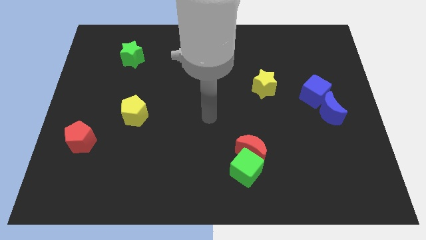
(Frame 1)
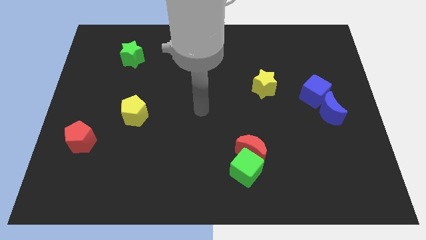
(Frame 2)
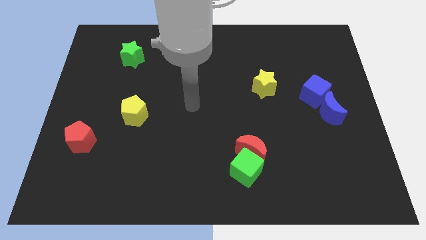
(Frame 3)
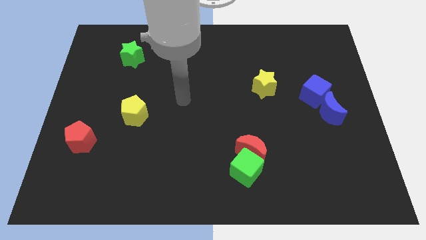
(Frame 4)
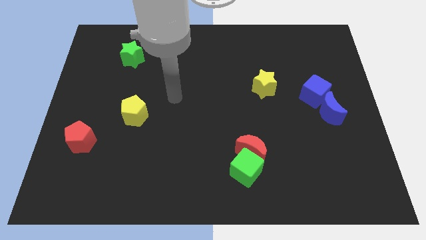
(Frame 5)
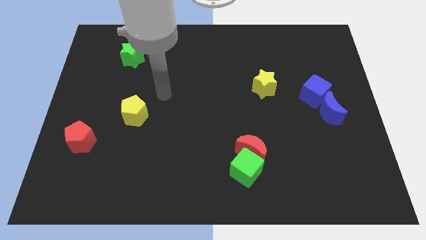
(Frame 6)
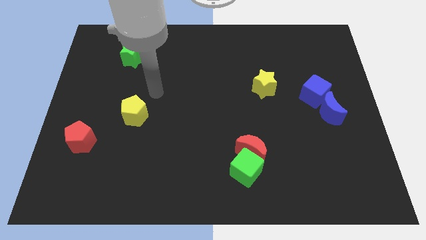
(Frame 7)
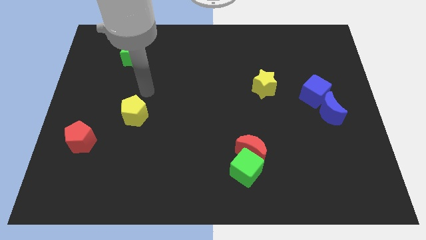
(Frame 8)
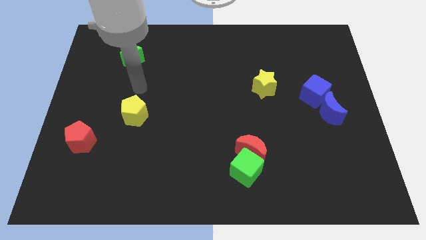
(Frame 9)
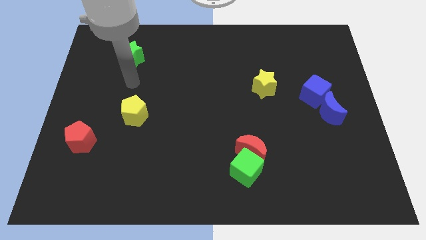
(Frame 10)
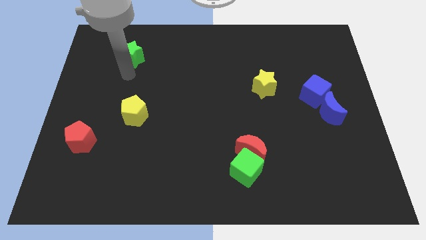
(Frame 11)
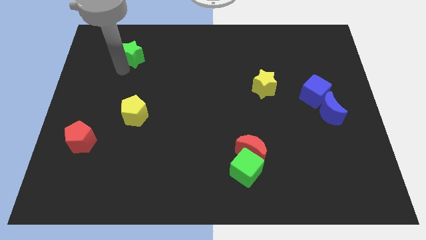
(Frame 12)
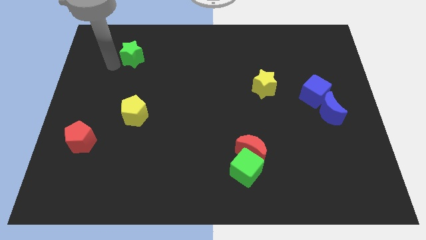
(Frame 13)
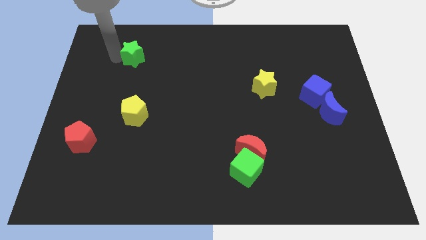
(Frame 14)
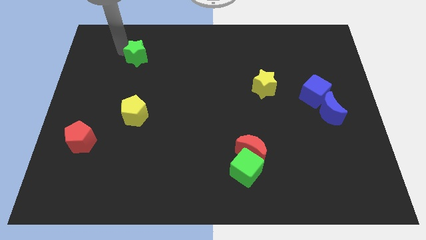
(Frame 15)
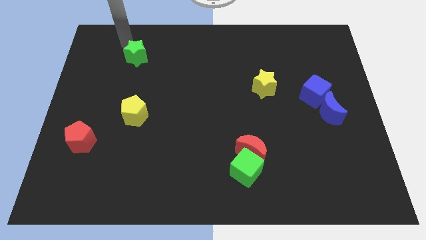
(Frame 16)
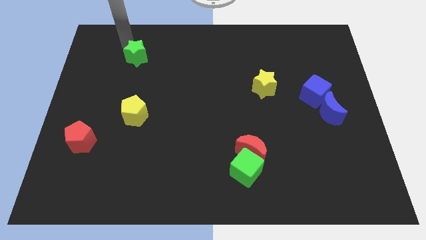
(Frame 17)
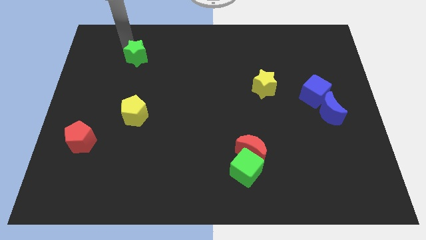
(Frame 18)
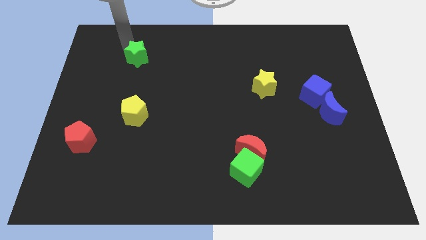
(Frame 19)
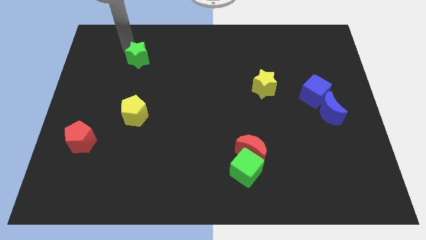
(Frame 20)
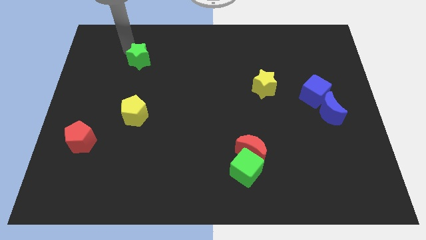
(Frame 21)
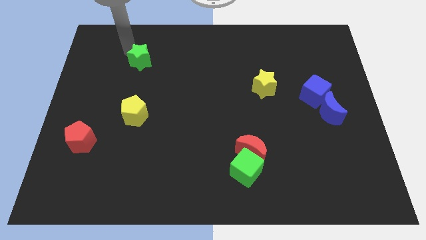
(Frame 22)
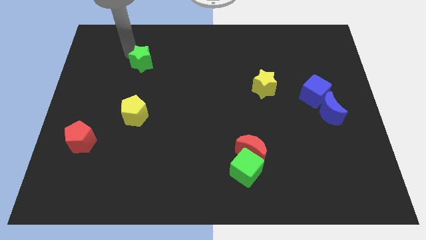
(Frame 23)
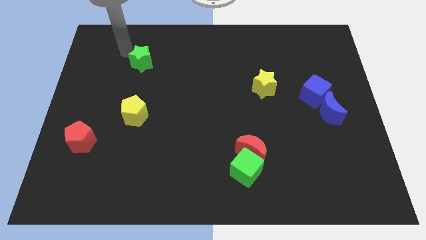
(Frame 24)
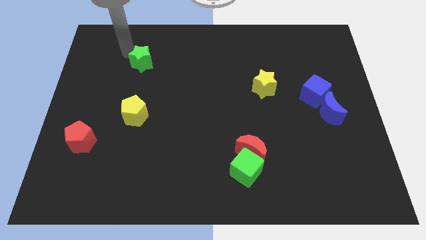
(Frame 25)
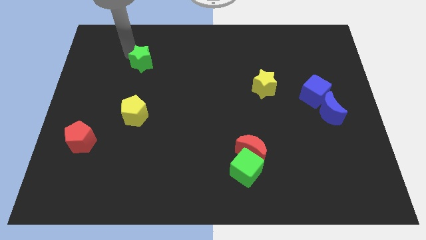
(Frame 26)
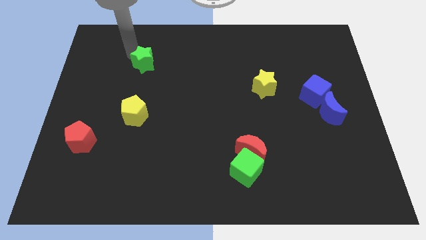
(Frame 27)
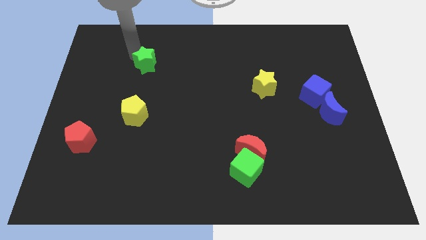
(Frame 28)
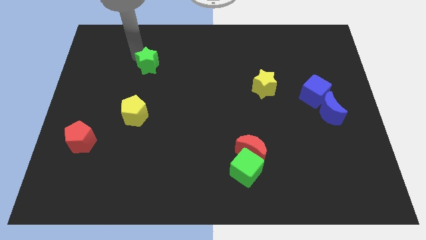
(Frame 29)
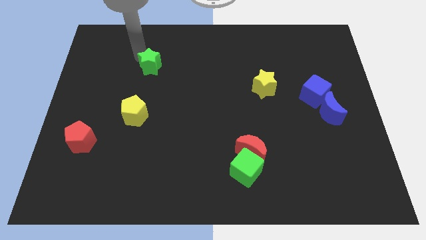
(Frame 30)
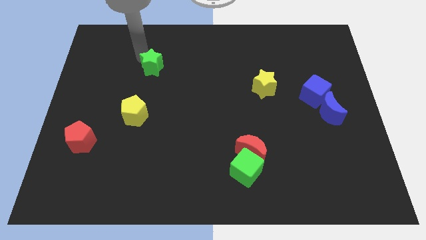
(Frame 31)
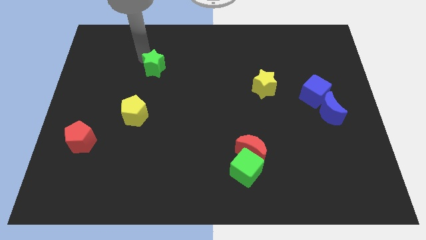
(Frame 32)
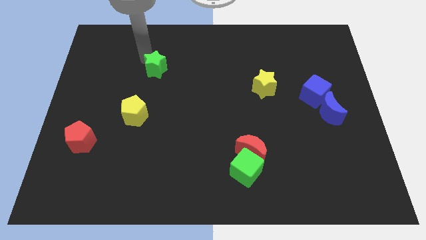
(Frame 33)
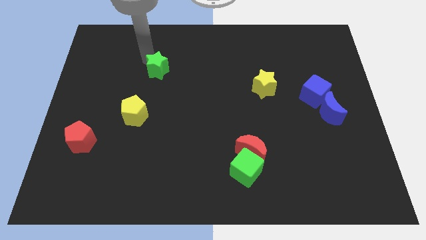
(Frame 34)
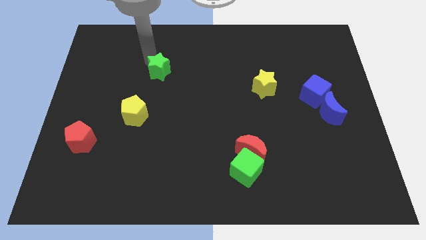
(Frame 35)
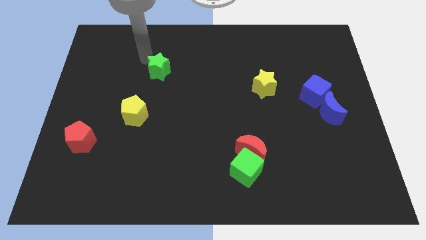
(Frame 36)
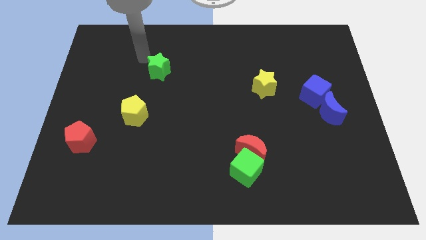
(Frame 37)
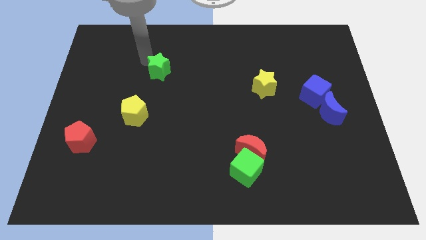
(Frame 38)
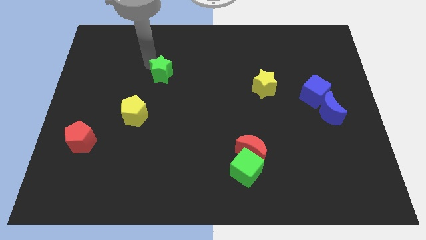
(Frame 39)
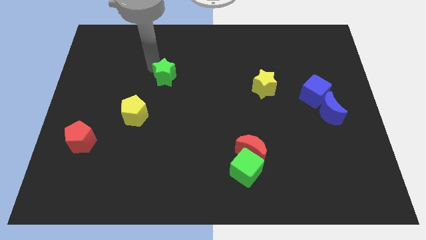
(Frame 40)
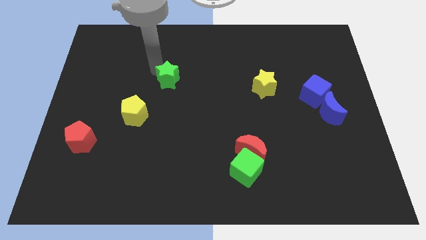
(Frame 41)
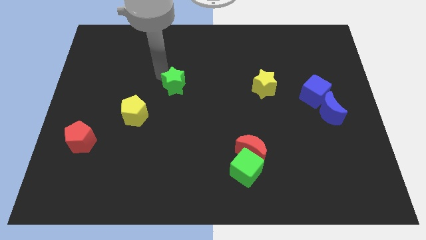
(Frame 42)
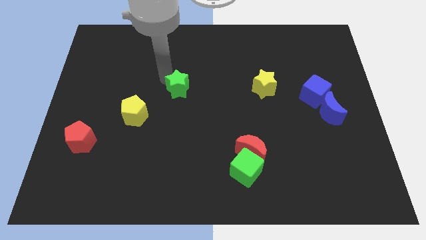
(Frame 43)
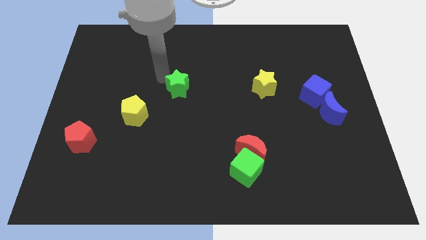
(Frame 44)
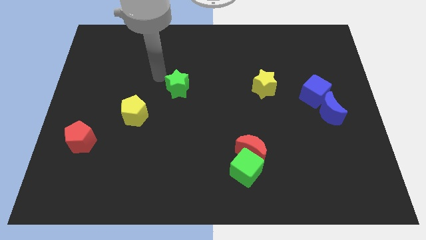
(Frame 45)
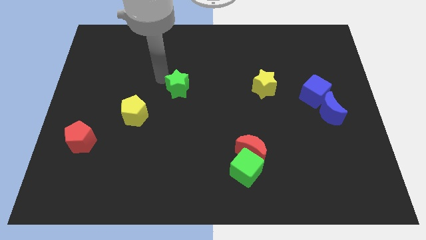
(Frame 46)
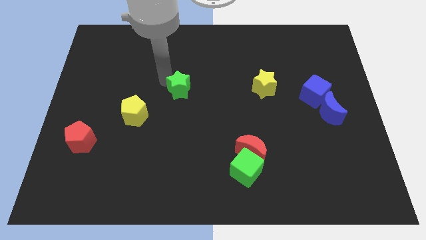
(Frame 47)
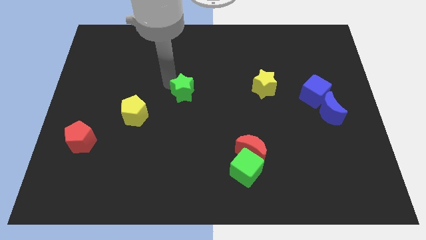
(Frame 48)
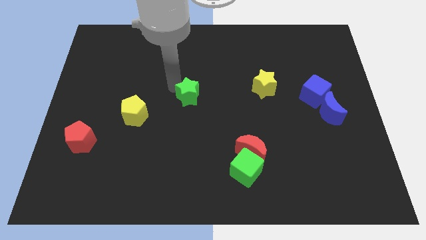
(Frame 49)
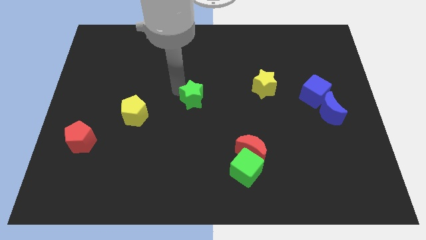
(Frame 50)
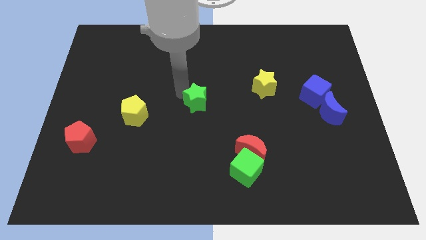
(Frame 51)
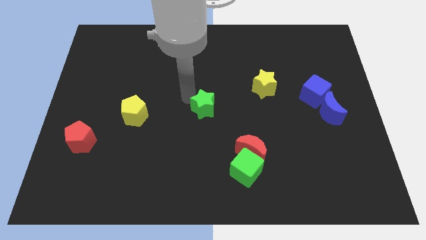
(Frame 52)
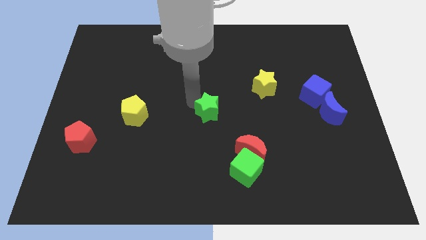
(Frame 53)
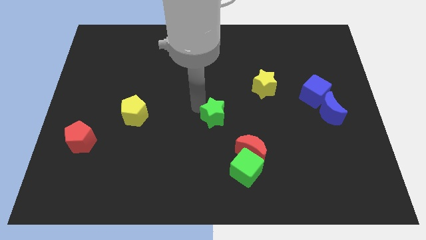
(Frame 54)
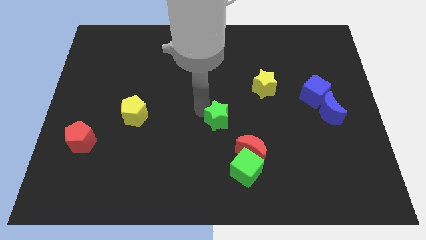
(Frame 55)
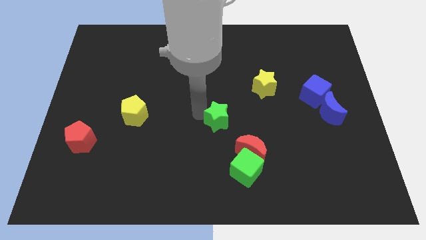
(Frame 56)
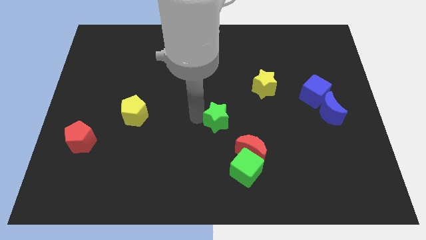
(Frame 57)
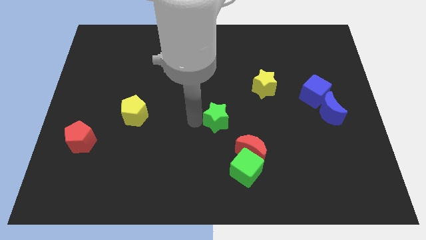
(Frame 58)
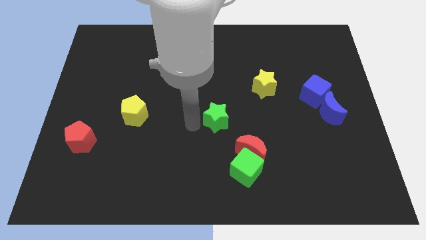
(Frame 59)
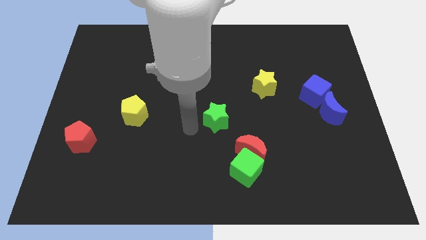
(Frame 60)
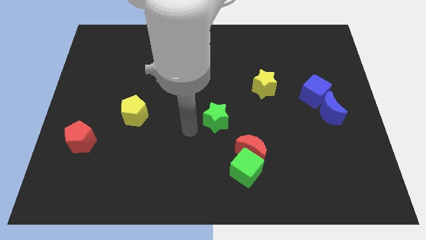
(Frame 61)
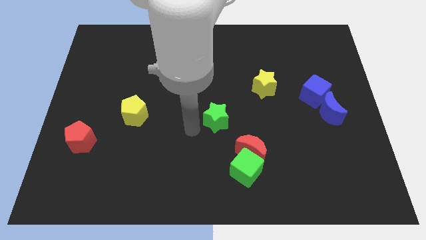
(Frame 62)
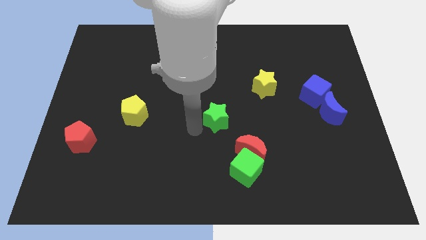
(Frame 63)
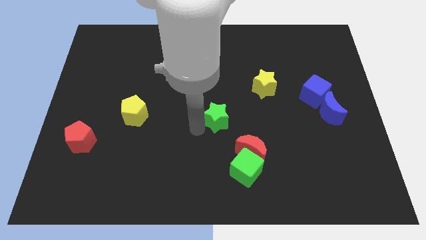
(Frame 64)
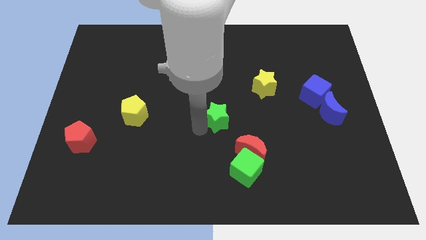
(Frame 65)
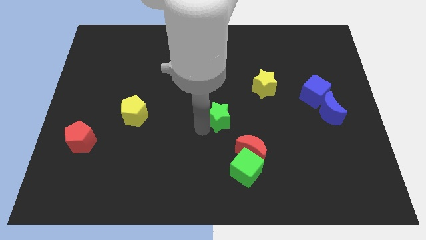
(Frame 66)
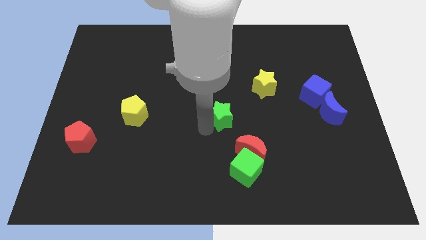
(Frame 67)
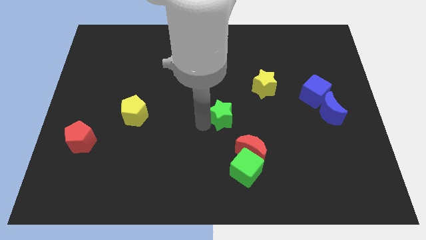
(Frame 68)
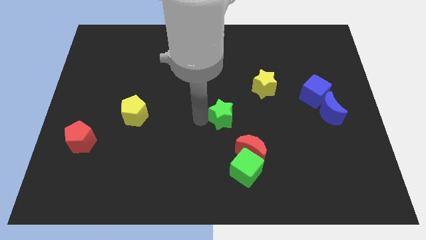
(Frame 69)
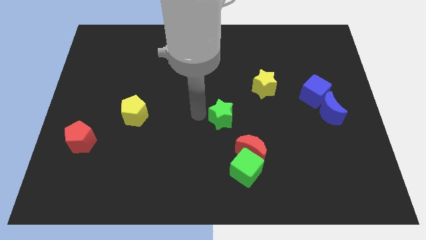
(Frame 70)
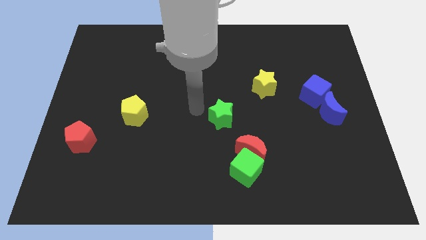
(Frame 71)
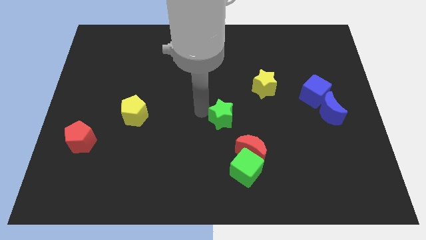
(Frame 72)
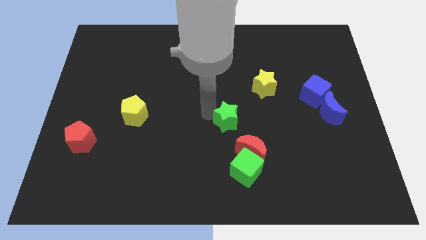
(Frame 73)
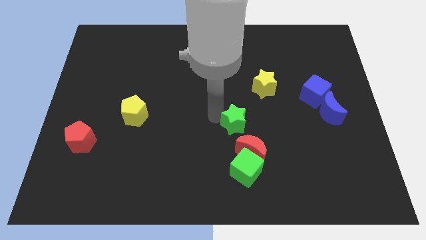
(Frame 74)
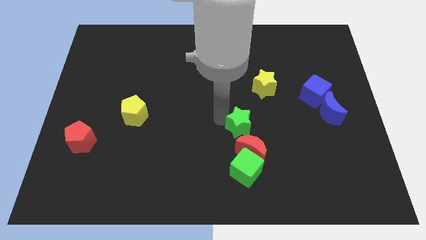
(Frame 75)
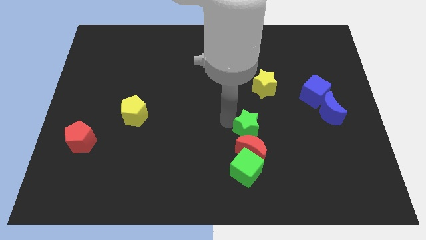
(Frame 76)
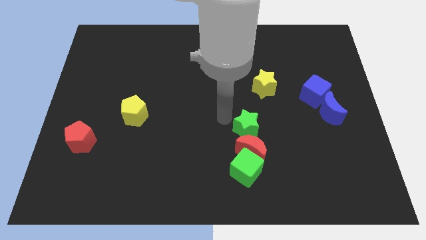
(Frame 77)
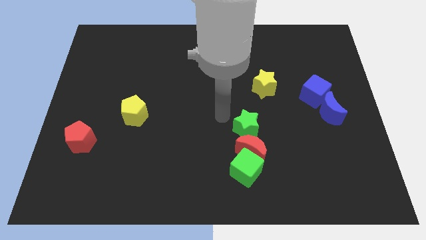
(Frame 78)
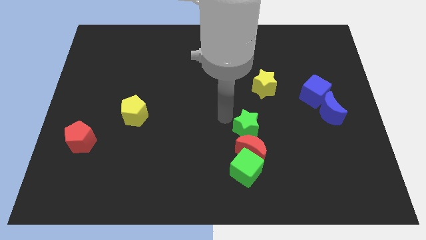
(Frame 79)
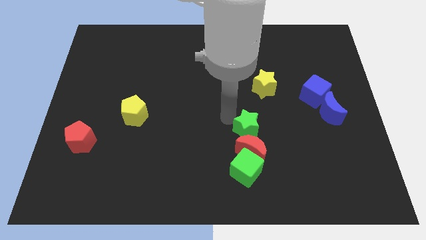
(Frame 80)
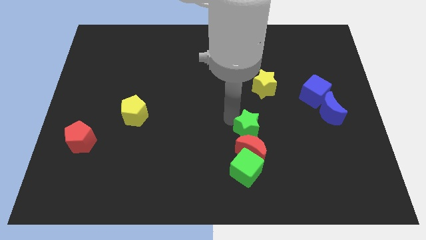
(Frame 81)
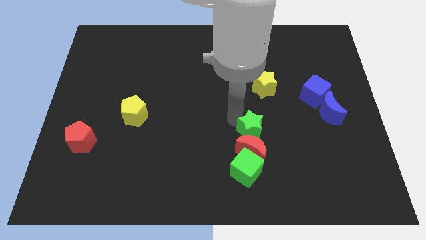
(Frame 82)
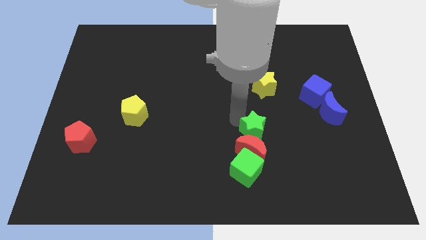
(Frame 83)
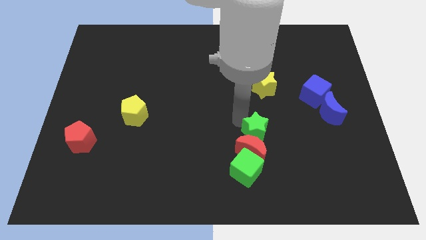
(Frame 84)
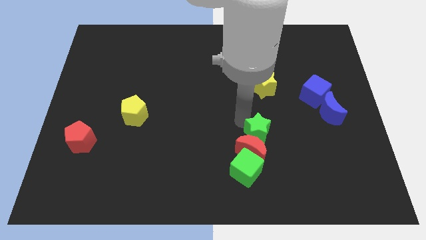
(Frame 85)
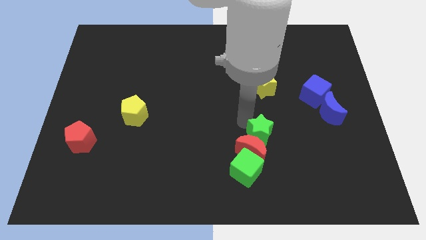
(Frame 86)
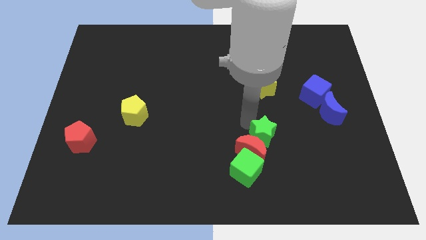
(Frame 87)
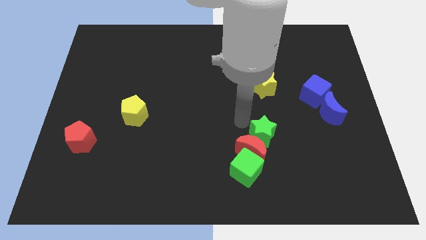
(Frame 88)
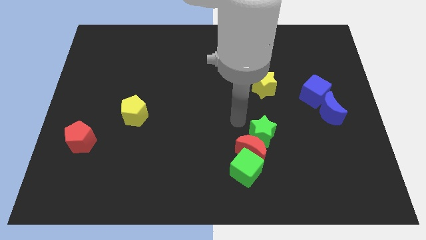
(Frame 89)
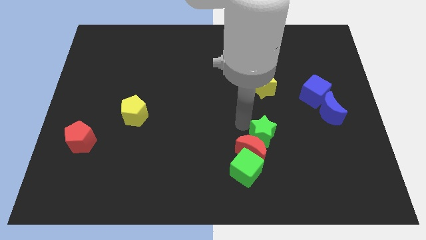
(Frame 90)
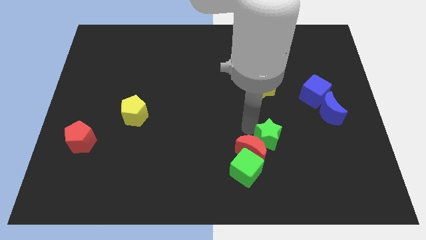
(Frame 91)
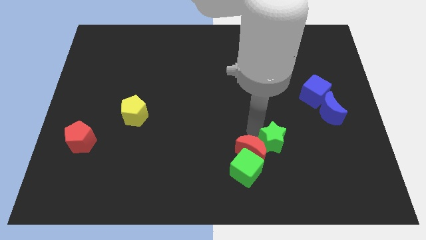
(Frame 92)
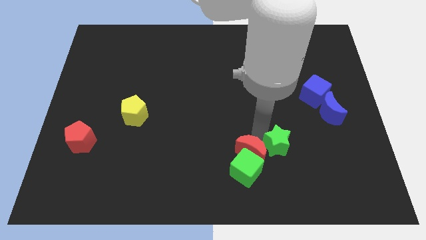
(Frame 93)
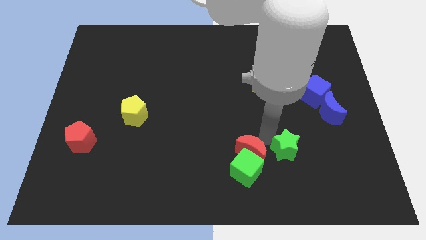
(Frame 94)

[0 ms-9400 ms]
move the green star to the right side of the green cube
